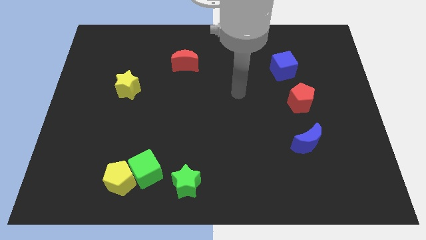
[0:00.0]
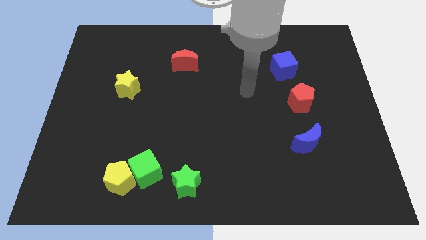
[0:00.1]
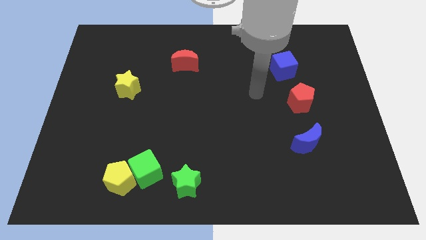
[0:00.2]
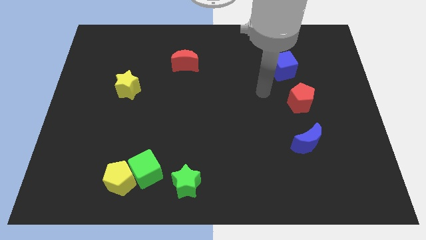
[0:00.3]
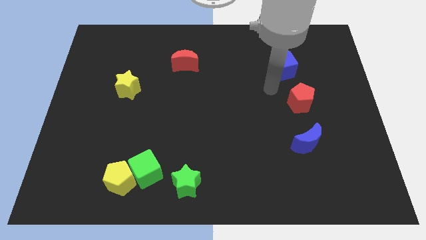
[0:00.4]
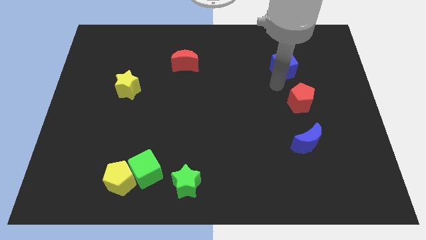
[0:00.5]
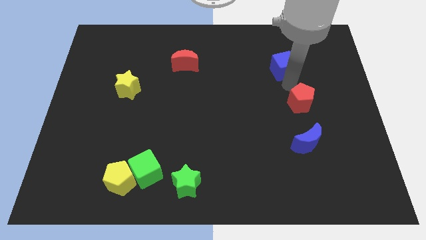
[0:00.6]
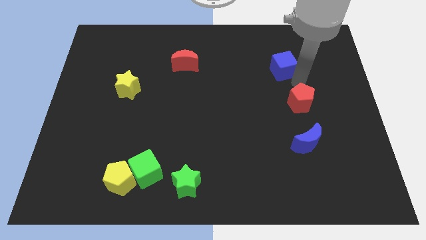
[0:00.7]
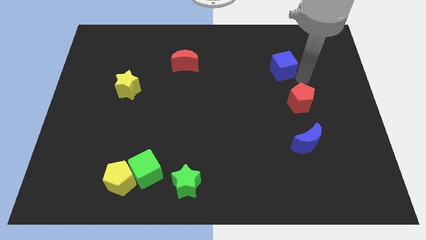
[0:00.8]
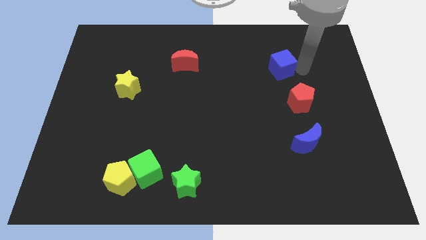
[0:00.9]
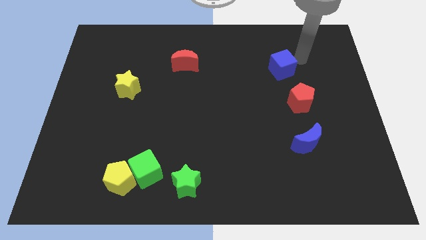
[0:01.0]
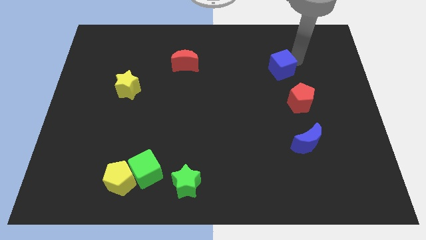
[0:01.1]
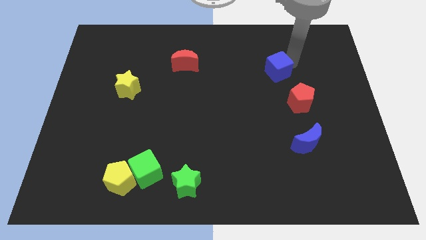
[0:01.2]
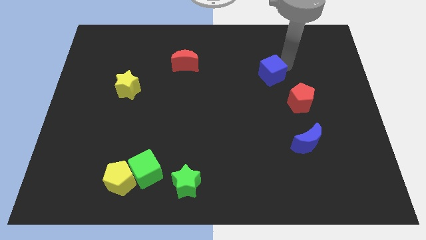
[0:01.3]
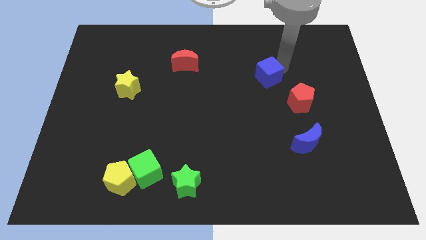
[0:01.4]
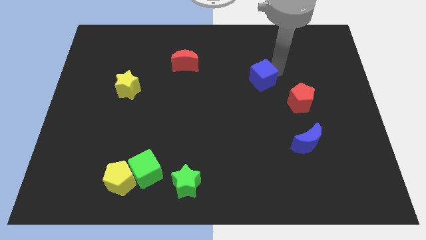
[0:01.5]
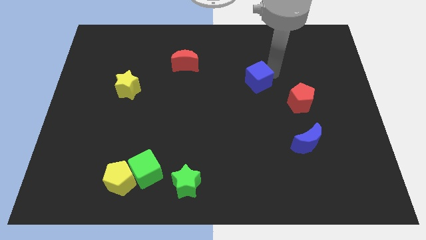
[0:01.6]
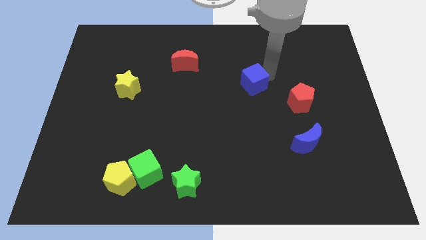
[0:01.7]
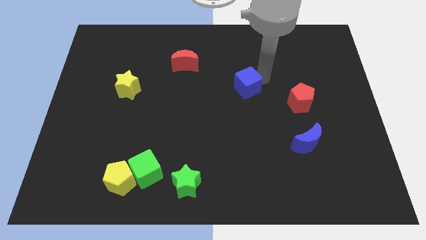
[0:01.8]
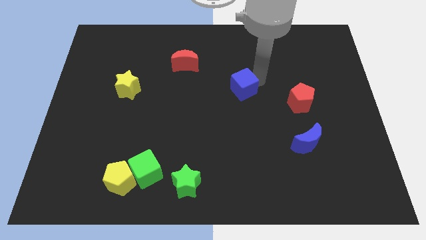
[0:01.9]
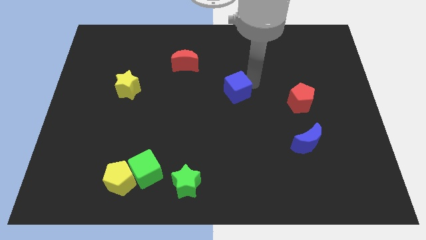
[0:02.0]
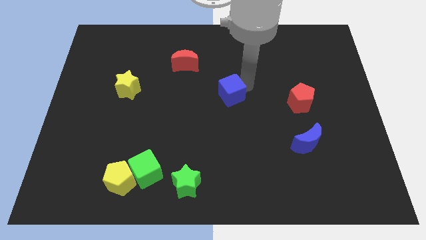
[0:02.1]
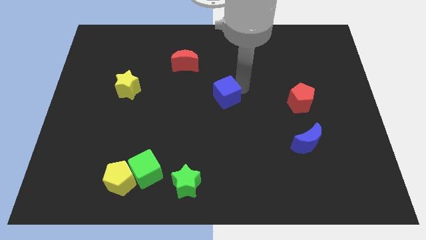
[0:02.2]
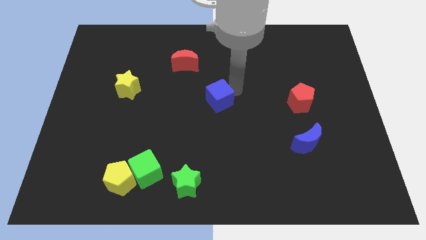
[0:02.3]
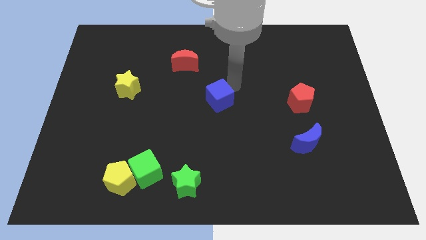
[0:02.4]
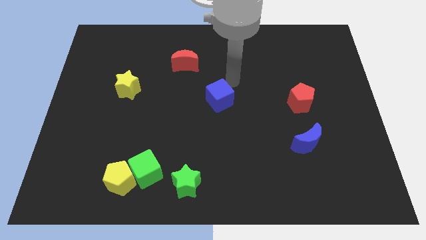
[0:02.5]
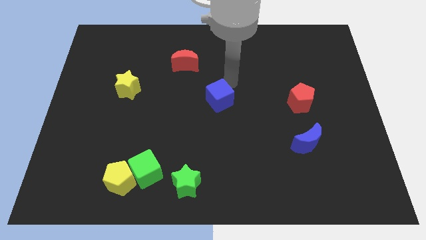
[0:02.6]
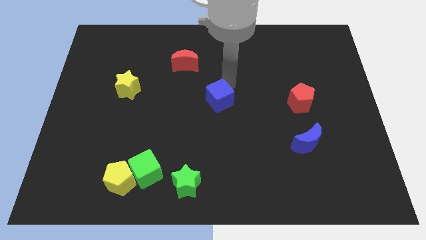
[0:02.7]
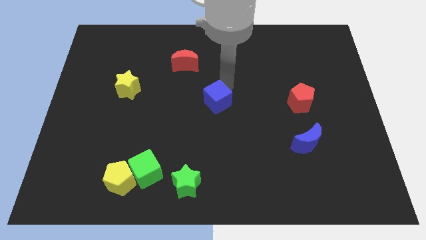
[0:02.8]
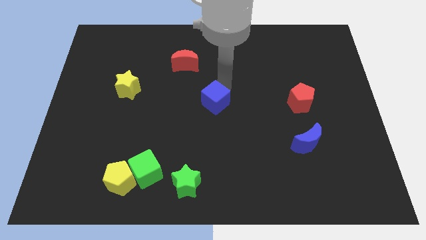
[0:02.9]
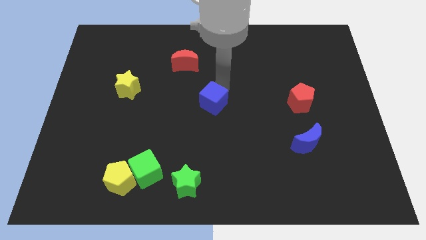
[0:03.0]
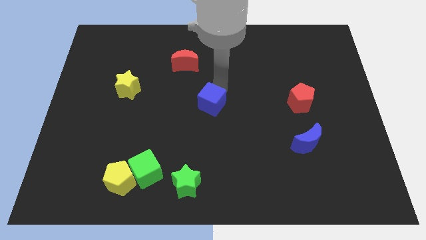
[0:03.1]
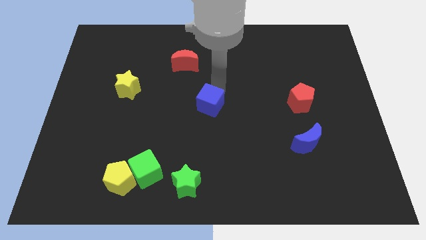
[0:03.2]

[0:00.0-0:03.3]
push the blue cube diagonally down and left

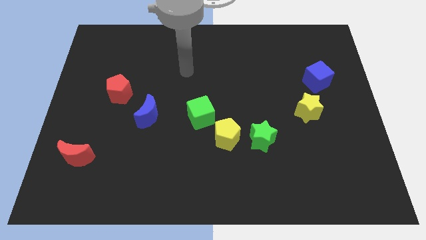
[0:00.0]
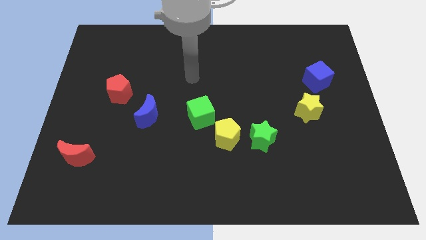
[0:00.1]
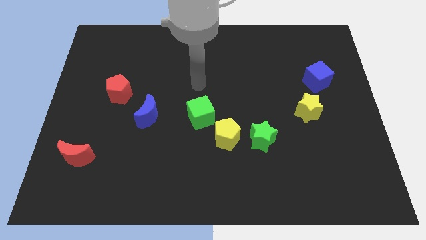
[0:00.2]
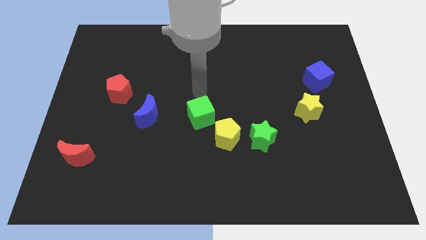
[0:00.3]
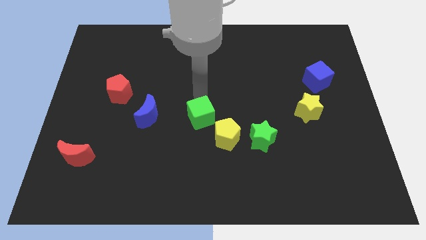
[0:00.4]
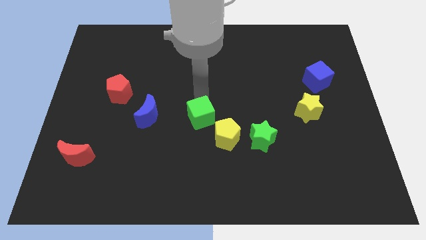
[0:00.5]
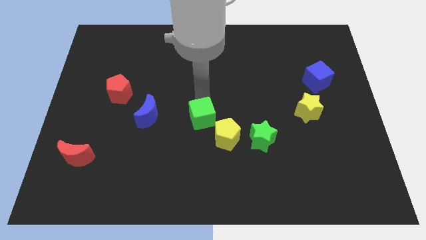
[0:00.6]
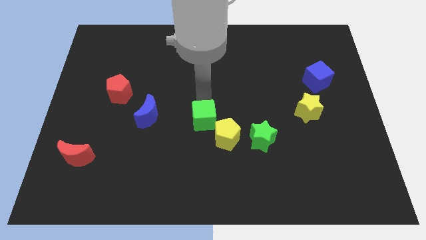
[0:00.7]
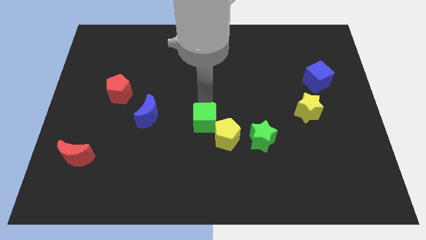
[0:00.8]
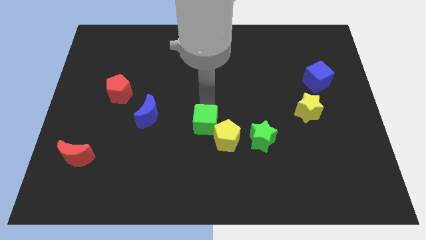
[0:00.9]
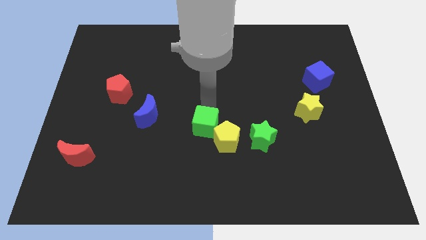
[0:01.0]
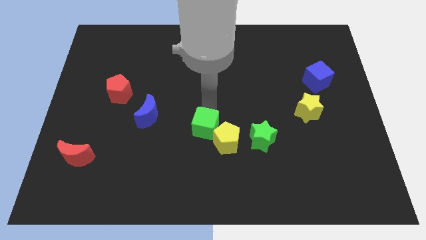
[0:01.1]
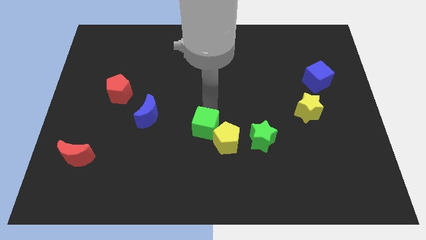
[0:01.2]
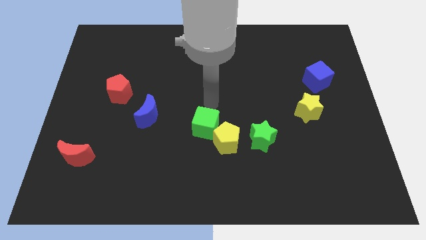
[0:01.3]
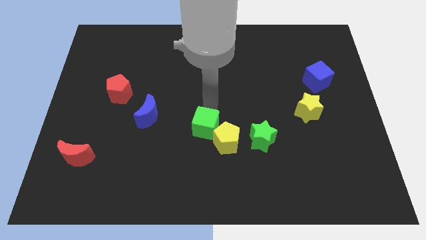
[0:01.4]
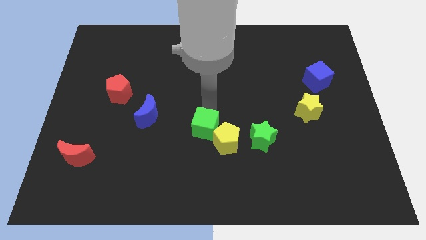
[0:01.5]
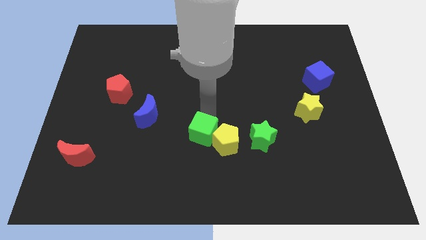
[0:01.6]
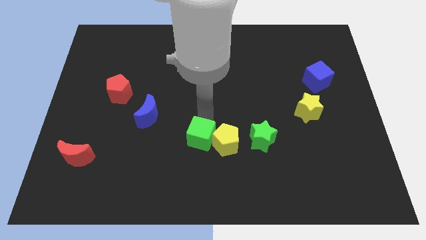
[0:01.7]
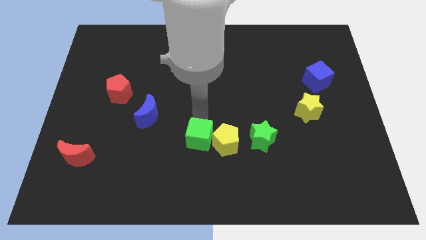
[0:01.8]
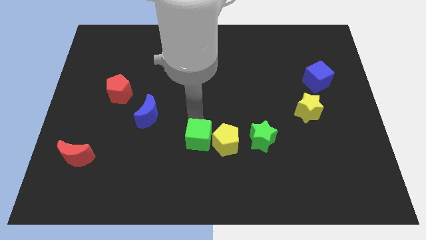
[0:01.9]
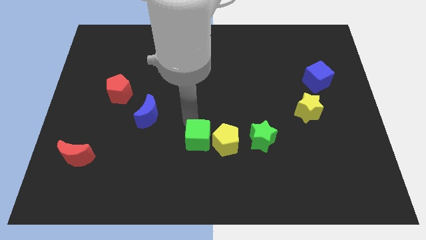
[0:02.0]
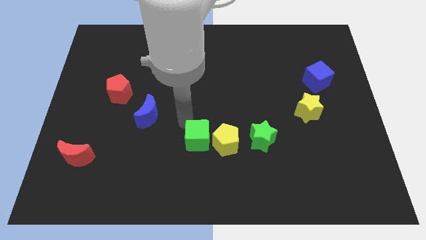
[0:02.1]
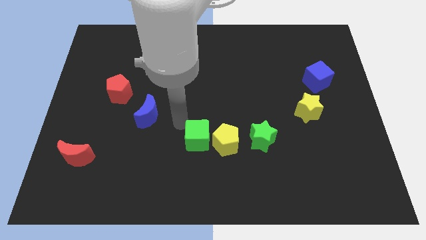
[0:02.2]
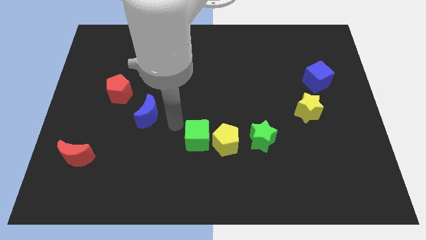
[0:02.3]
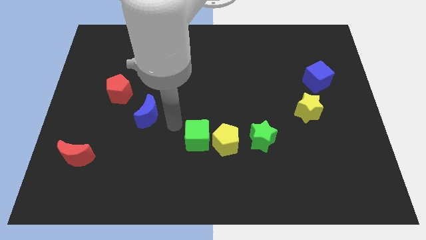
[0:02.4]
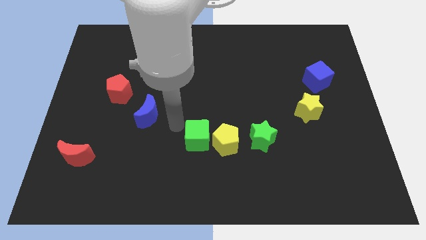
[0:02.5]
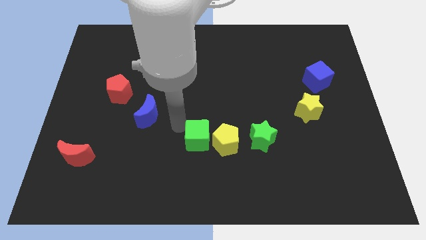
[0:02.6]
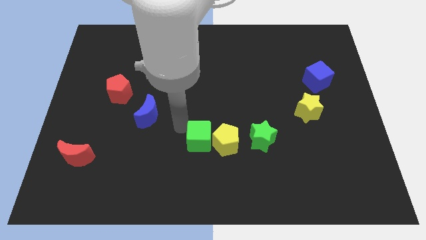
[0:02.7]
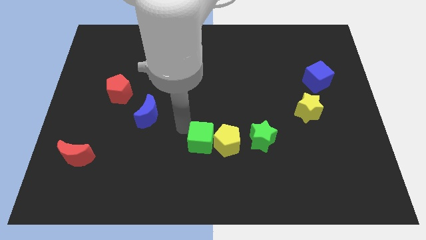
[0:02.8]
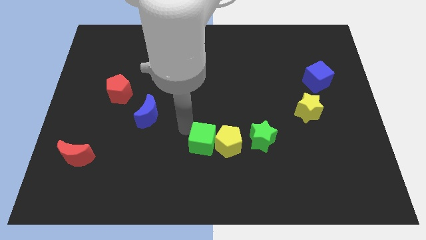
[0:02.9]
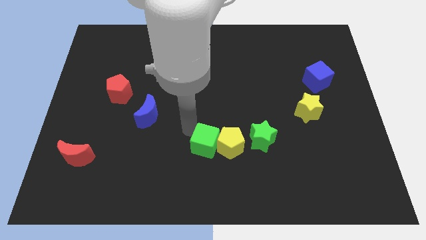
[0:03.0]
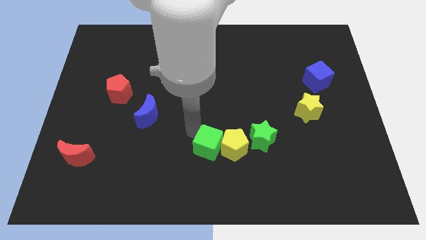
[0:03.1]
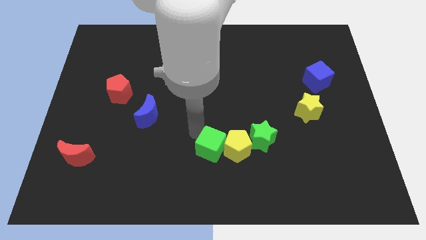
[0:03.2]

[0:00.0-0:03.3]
push the green cube a bit diagonally downwards and to the right

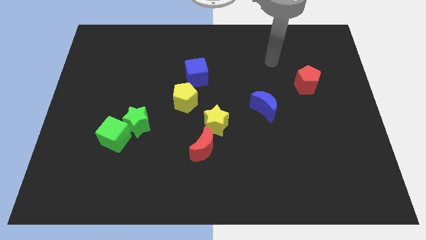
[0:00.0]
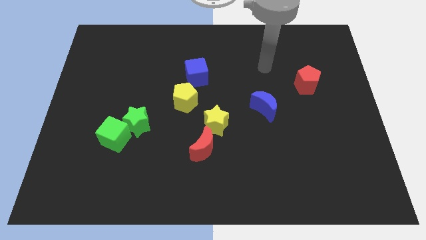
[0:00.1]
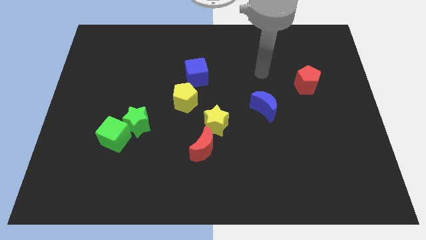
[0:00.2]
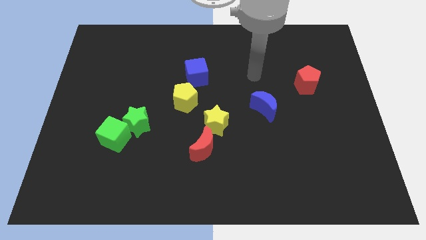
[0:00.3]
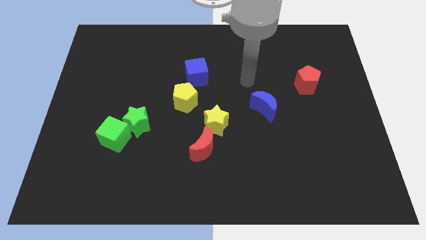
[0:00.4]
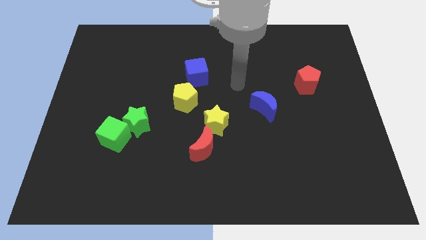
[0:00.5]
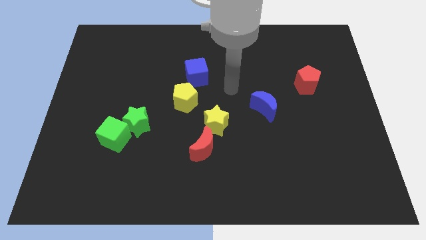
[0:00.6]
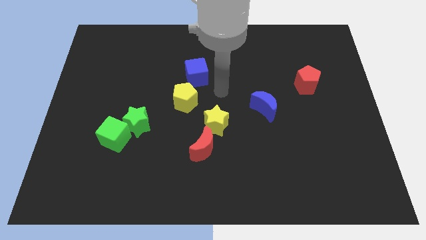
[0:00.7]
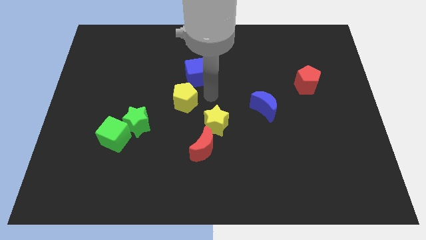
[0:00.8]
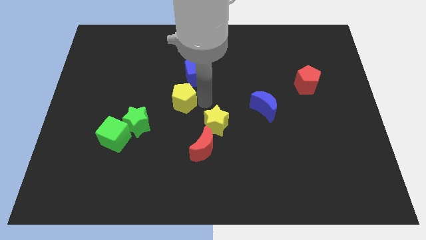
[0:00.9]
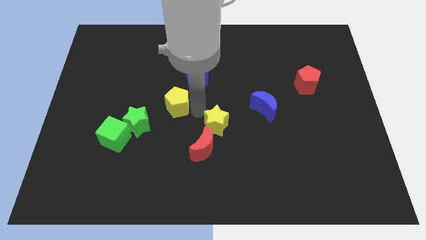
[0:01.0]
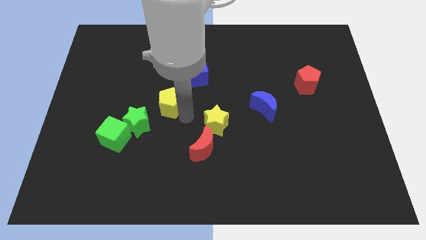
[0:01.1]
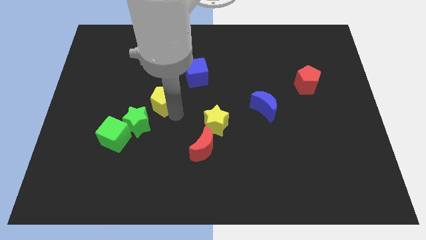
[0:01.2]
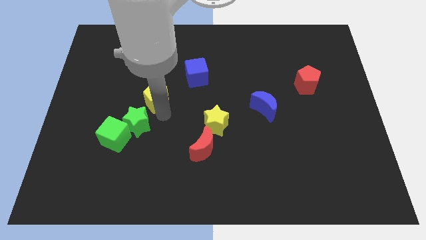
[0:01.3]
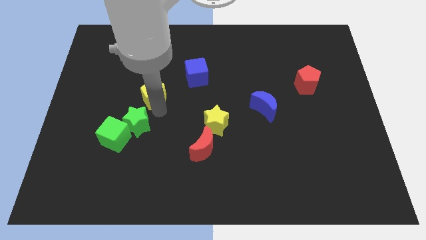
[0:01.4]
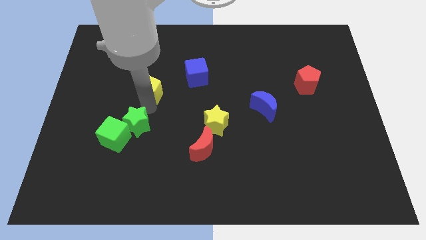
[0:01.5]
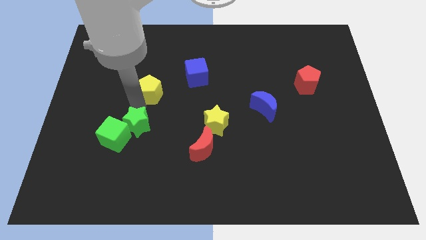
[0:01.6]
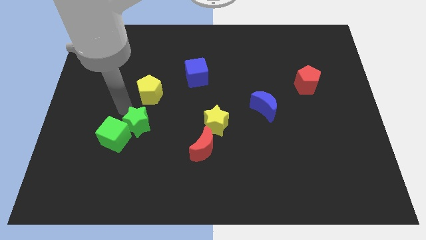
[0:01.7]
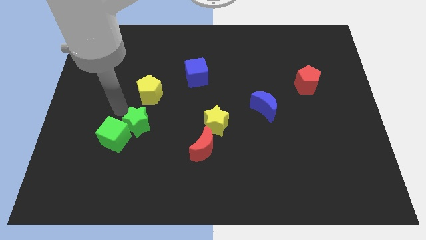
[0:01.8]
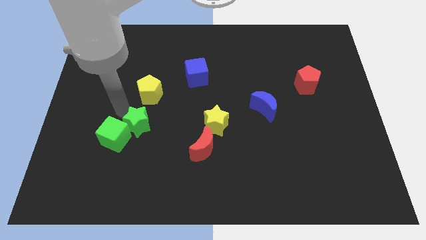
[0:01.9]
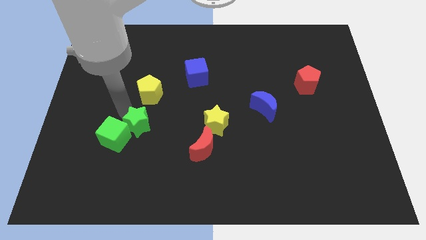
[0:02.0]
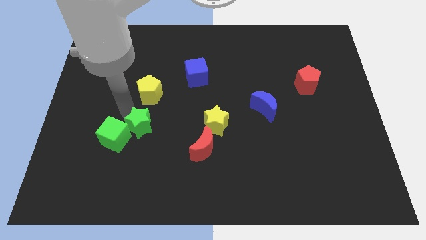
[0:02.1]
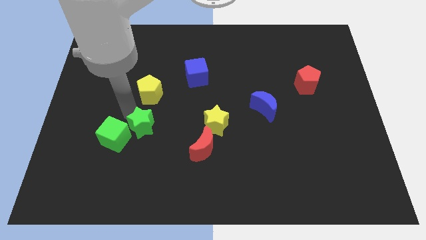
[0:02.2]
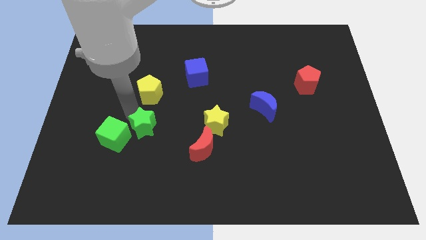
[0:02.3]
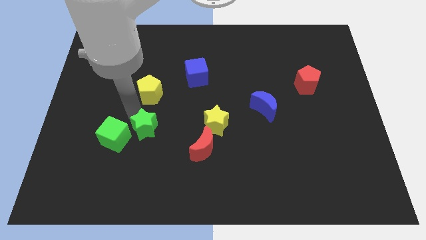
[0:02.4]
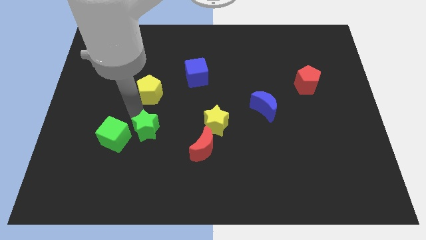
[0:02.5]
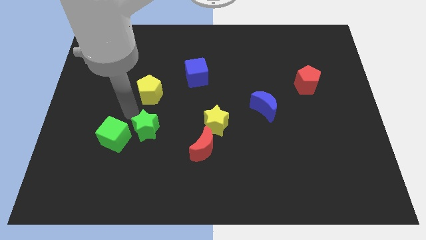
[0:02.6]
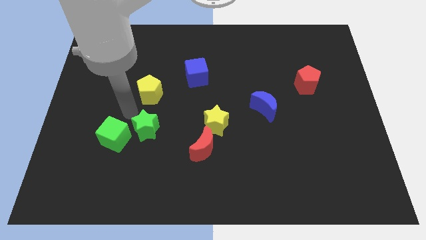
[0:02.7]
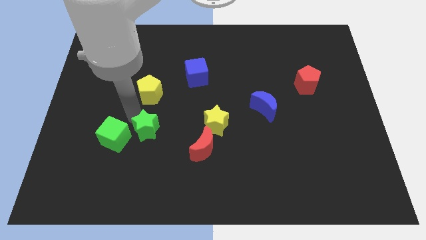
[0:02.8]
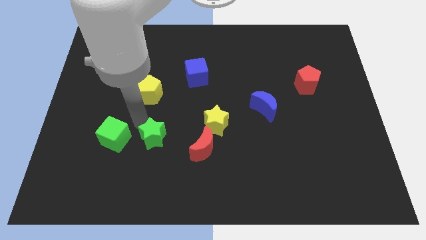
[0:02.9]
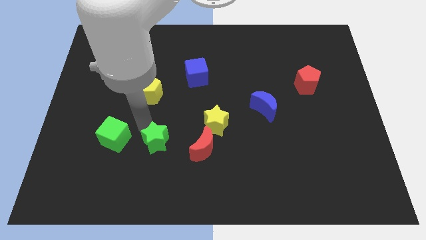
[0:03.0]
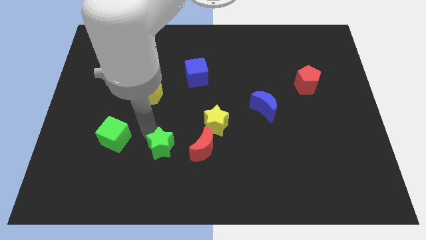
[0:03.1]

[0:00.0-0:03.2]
push the green star slightly diagonally downwards and right
